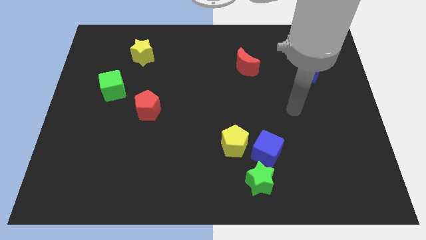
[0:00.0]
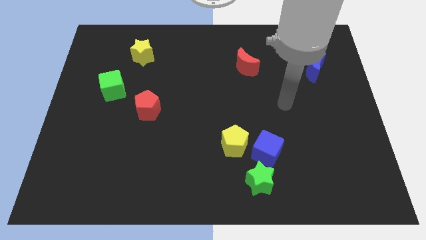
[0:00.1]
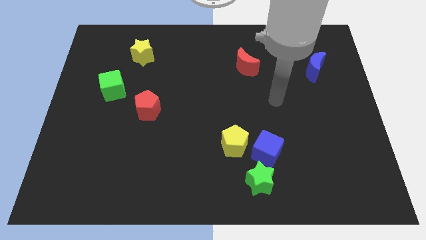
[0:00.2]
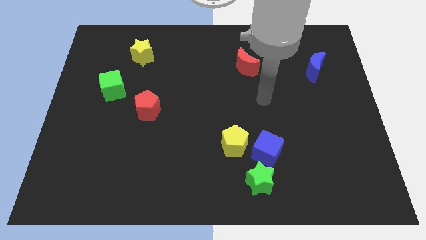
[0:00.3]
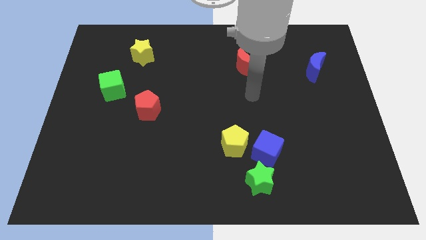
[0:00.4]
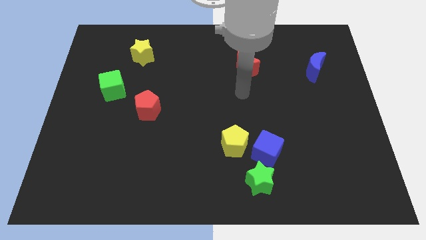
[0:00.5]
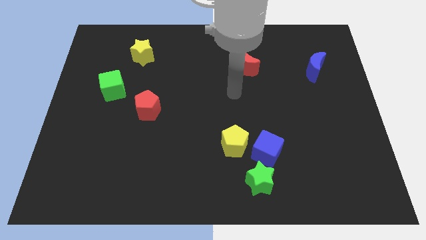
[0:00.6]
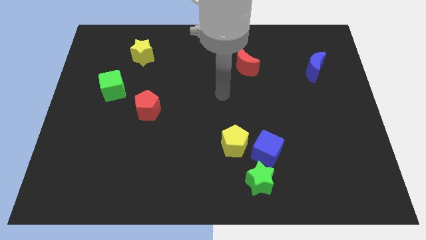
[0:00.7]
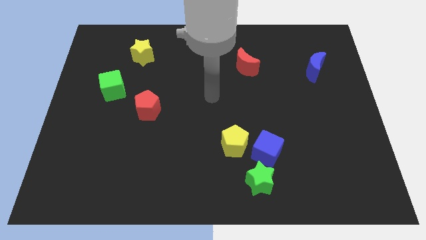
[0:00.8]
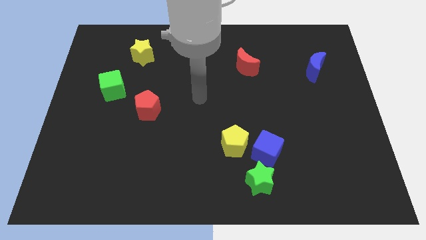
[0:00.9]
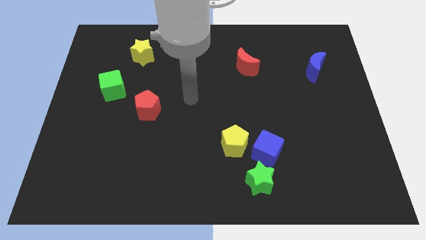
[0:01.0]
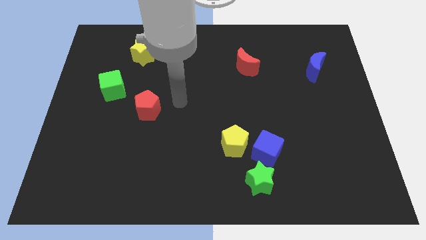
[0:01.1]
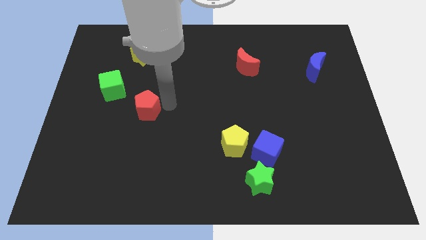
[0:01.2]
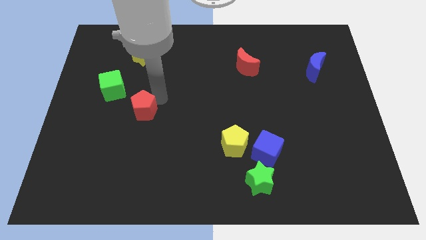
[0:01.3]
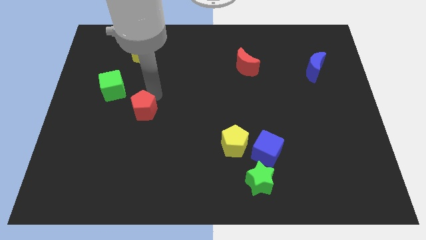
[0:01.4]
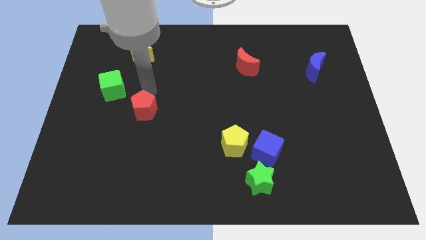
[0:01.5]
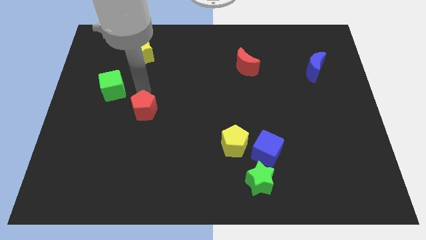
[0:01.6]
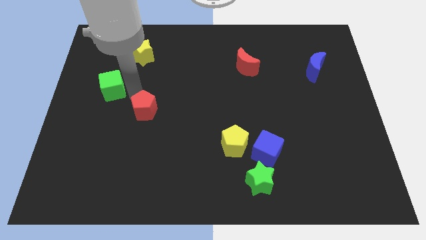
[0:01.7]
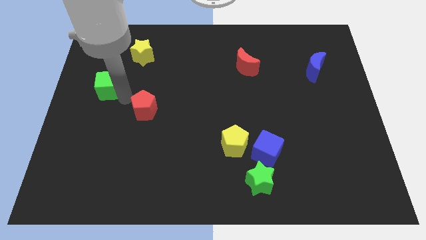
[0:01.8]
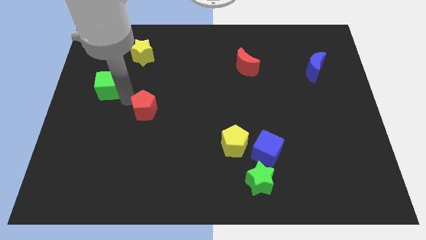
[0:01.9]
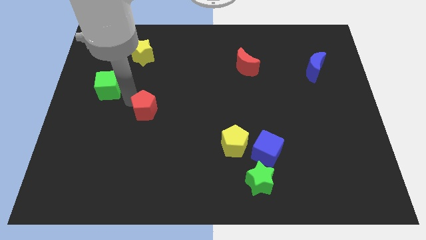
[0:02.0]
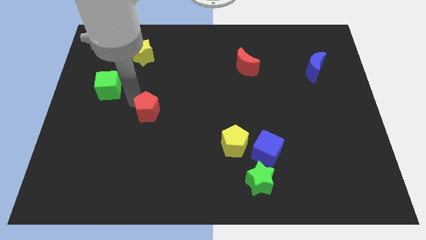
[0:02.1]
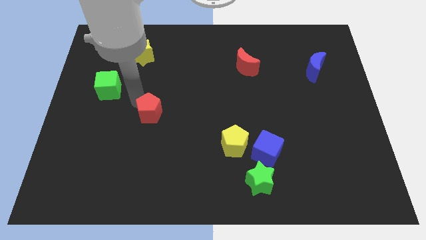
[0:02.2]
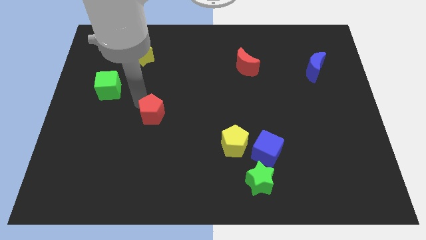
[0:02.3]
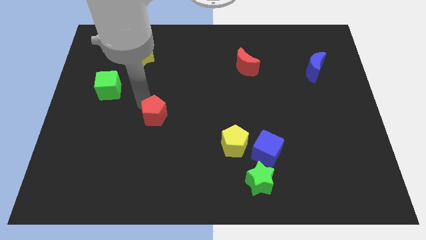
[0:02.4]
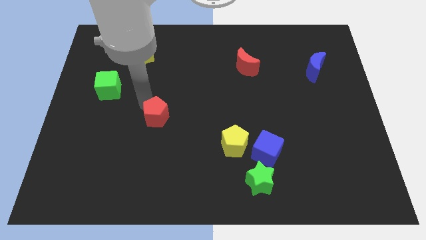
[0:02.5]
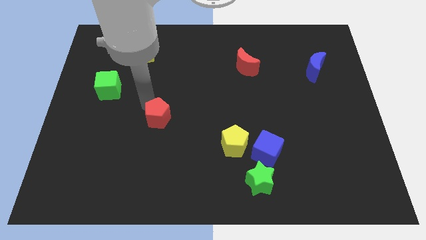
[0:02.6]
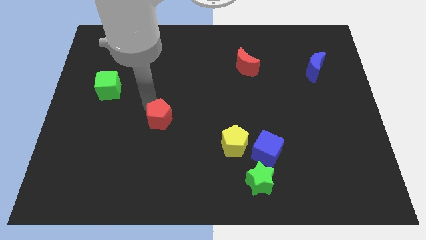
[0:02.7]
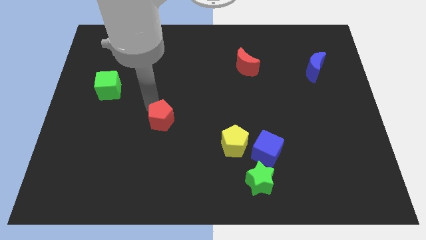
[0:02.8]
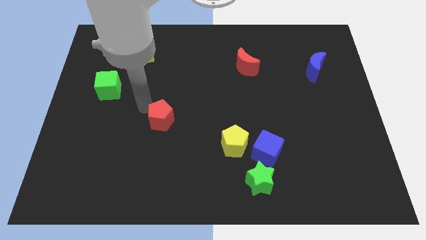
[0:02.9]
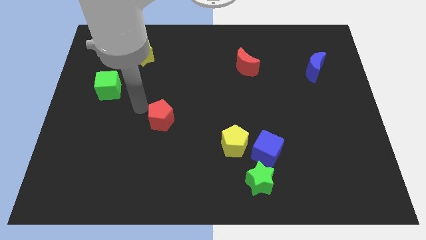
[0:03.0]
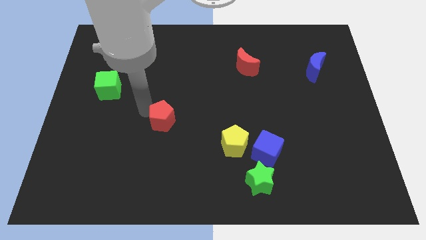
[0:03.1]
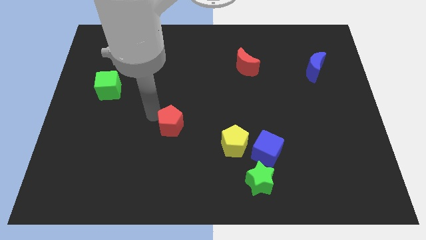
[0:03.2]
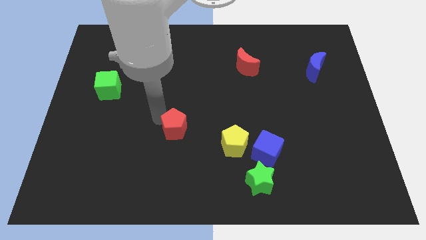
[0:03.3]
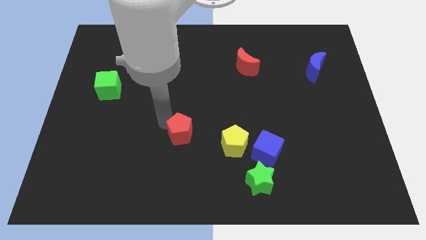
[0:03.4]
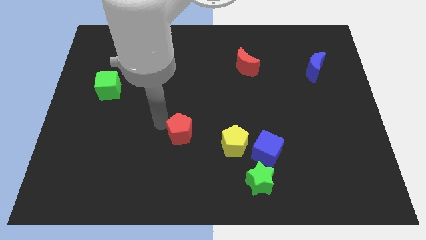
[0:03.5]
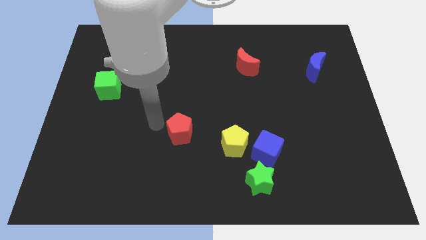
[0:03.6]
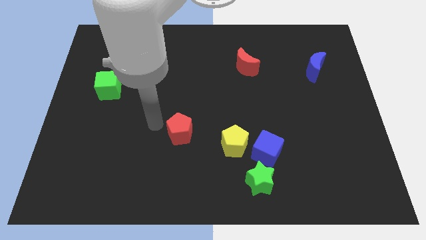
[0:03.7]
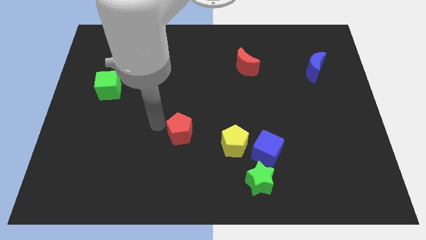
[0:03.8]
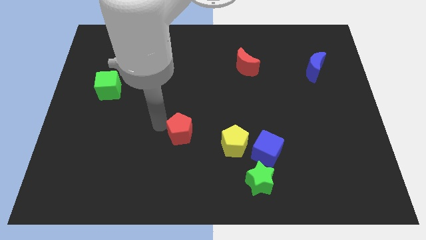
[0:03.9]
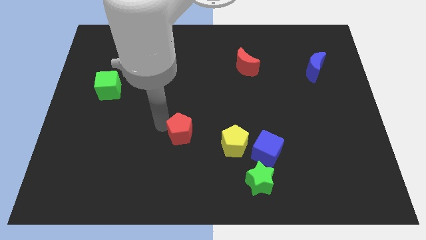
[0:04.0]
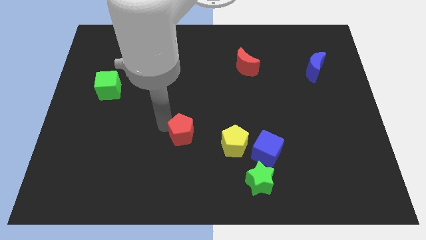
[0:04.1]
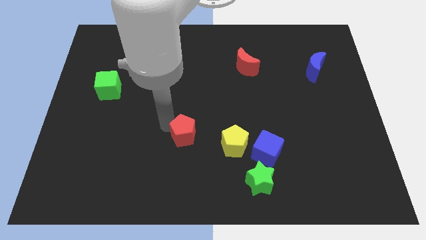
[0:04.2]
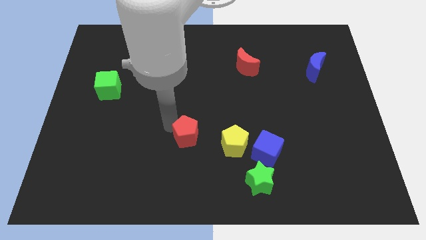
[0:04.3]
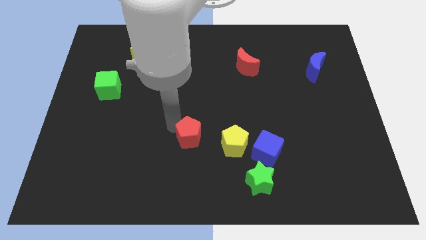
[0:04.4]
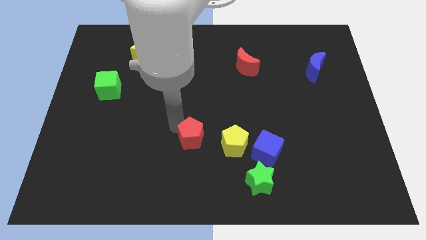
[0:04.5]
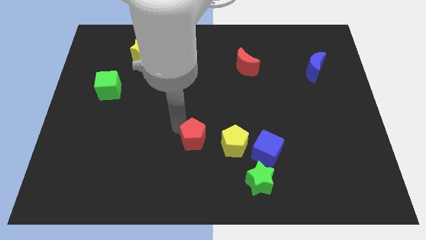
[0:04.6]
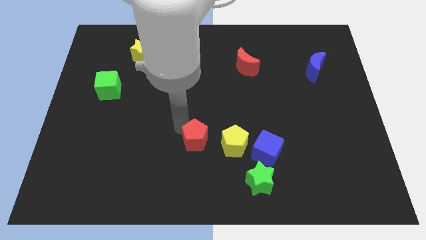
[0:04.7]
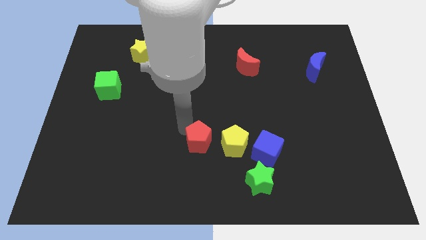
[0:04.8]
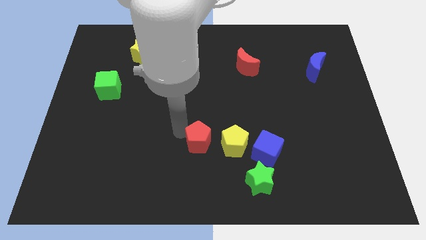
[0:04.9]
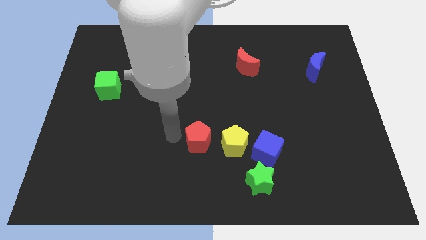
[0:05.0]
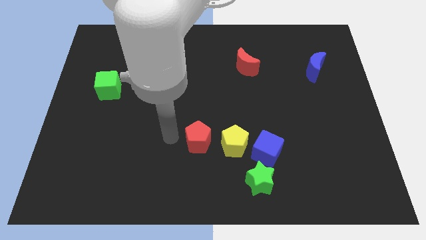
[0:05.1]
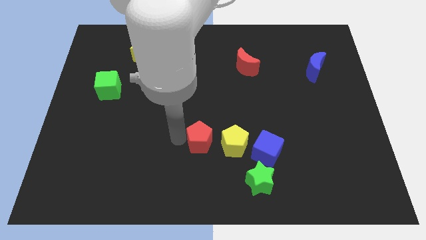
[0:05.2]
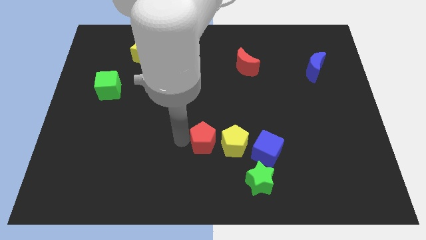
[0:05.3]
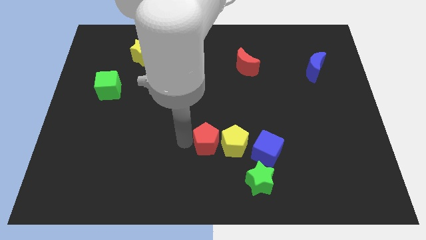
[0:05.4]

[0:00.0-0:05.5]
slide the red pentagon to the yellow pentagon
